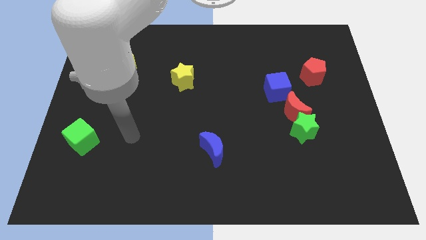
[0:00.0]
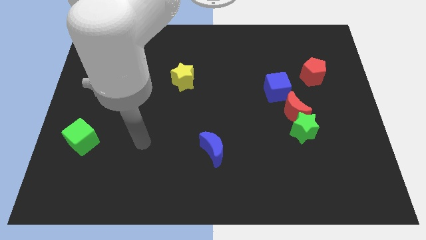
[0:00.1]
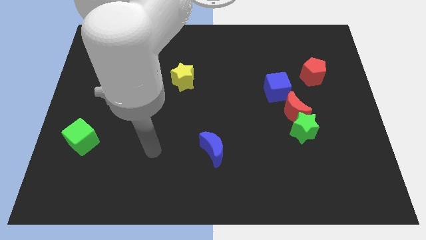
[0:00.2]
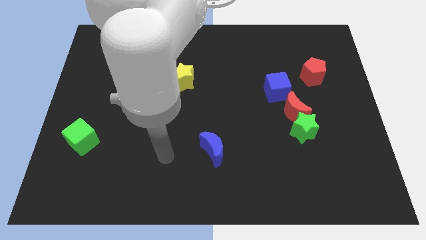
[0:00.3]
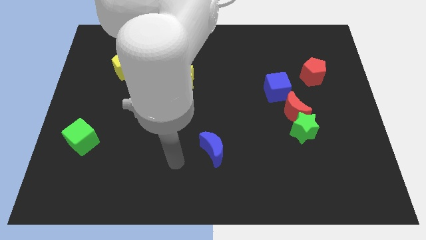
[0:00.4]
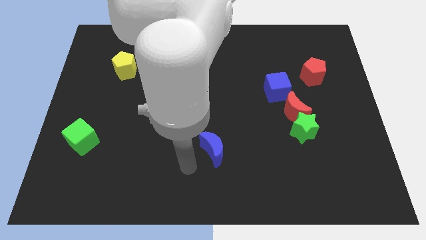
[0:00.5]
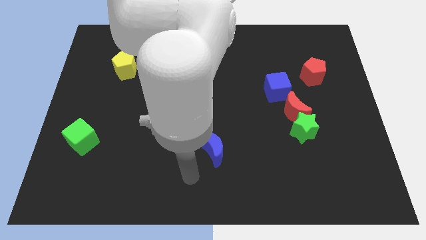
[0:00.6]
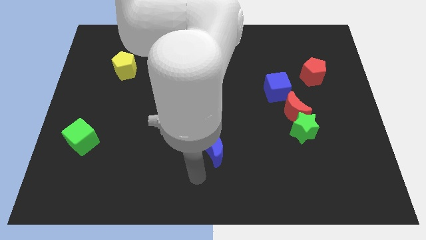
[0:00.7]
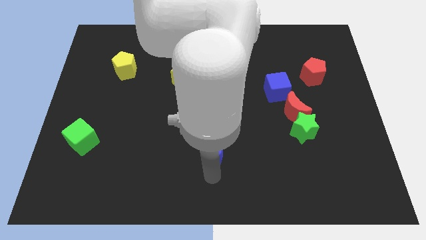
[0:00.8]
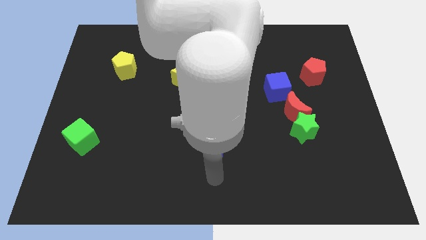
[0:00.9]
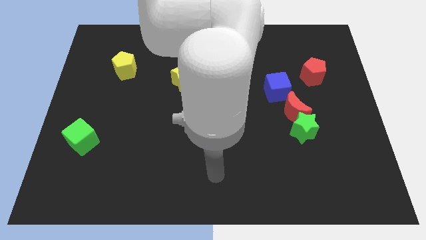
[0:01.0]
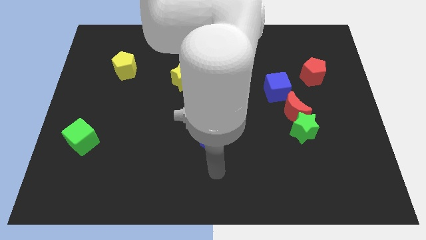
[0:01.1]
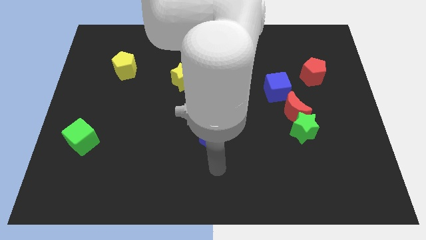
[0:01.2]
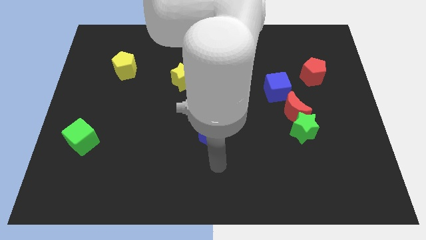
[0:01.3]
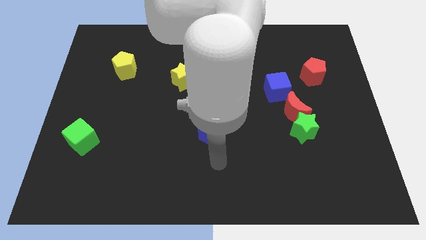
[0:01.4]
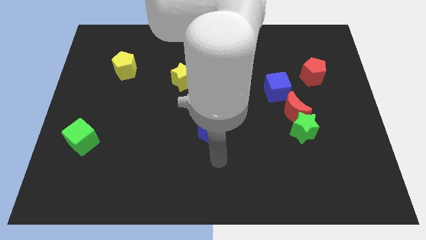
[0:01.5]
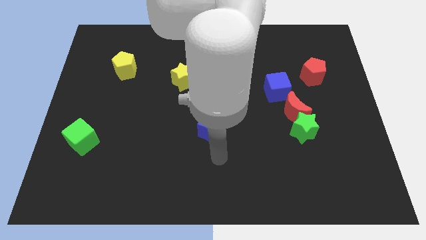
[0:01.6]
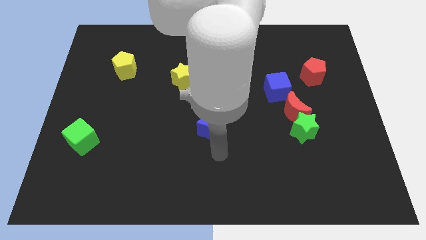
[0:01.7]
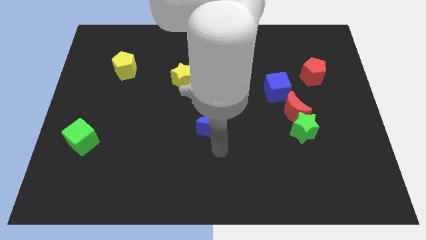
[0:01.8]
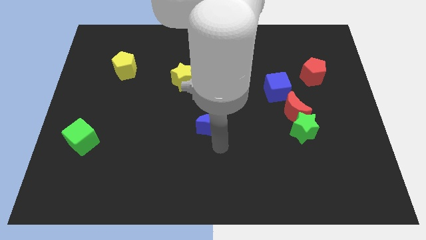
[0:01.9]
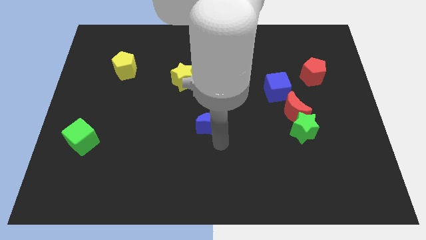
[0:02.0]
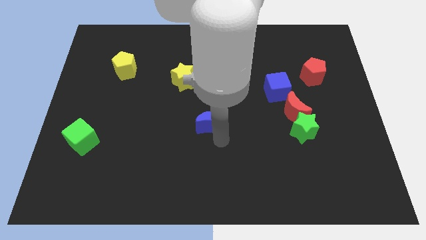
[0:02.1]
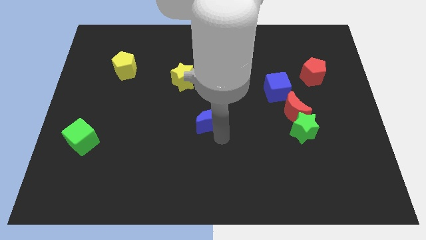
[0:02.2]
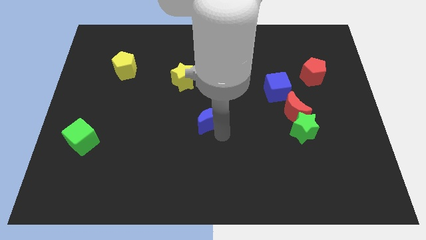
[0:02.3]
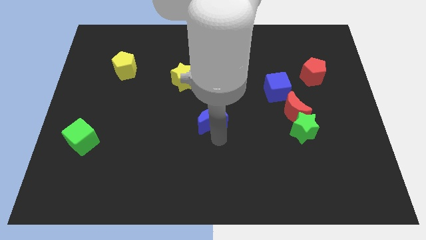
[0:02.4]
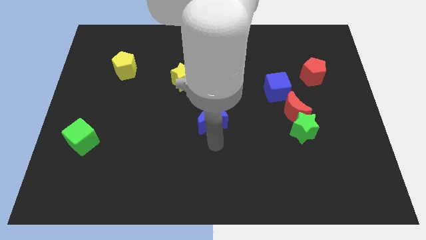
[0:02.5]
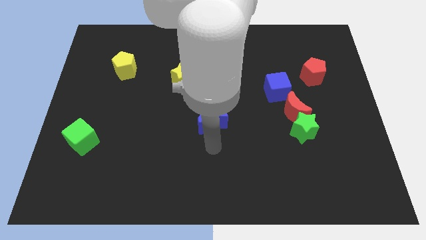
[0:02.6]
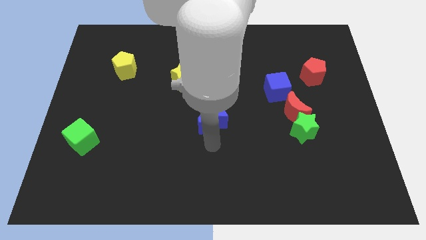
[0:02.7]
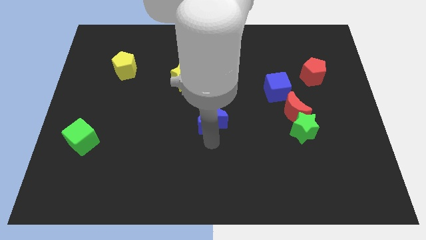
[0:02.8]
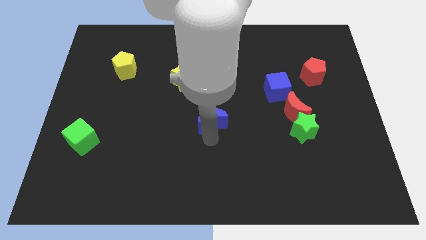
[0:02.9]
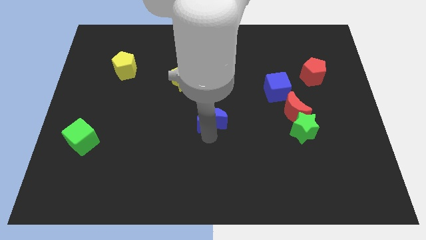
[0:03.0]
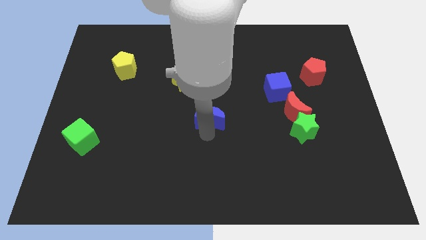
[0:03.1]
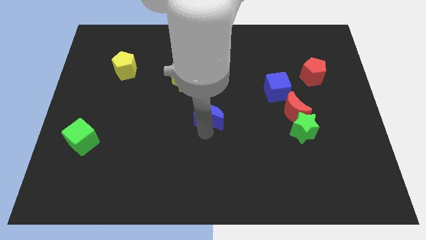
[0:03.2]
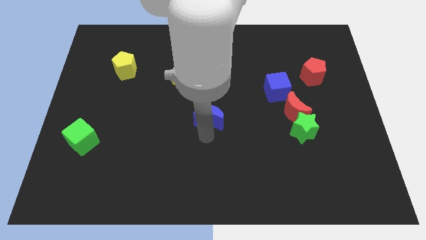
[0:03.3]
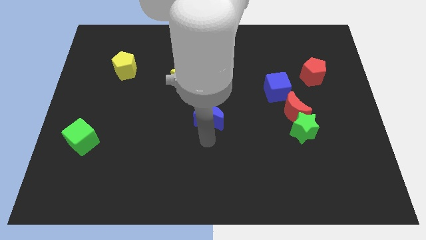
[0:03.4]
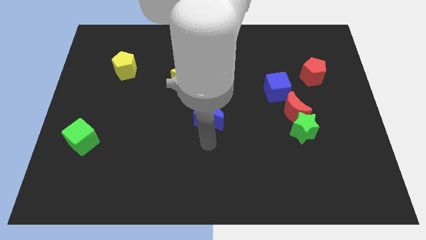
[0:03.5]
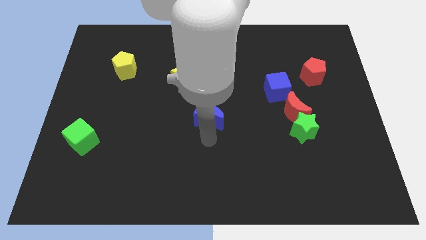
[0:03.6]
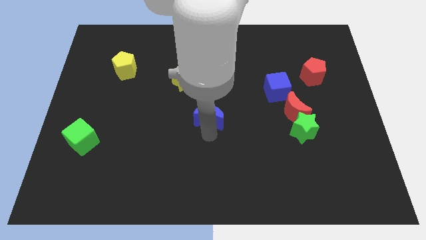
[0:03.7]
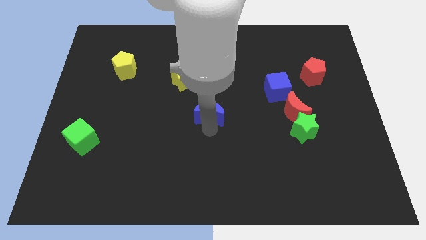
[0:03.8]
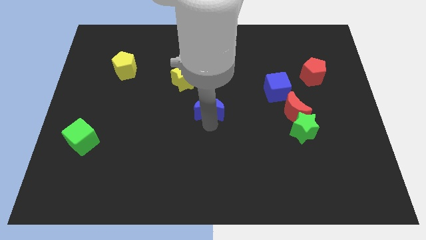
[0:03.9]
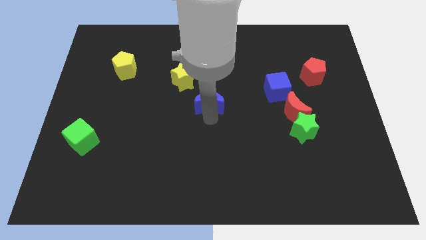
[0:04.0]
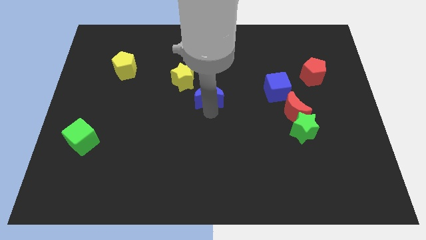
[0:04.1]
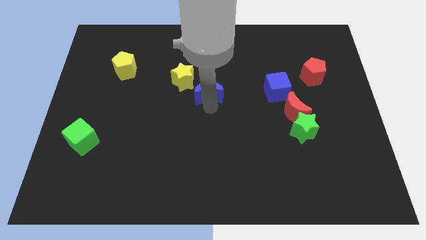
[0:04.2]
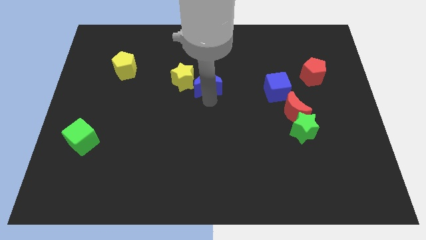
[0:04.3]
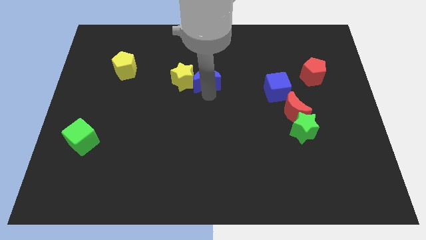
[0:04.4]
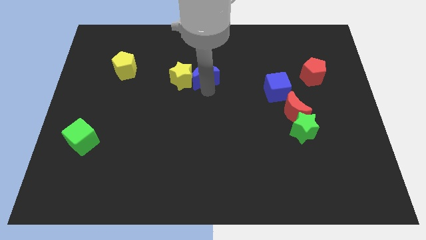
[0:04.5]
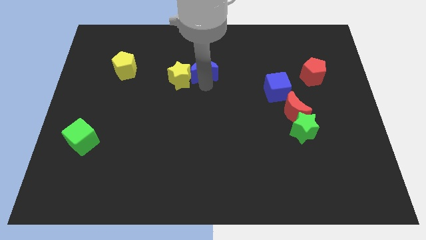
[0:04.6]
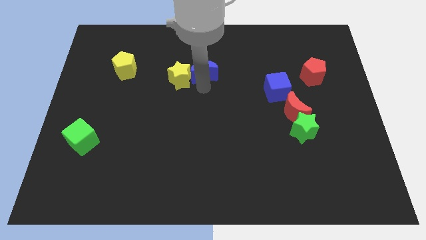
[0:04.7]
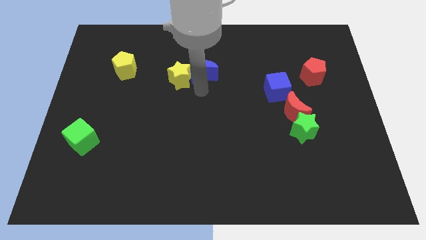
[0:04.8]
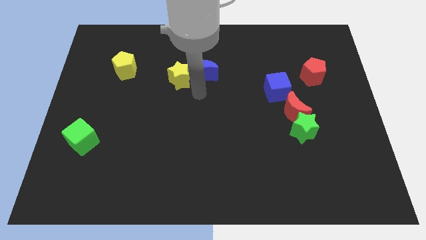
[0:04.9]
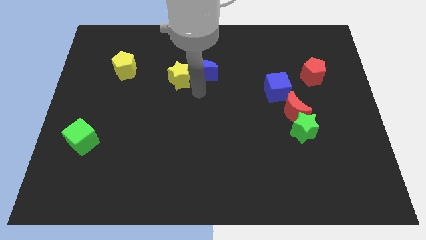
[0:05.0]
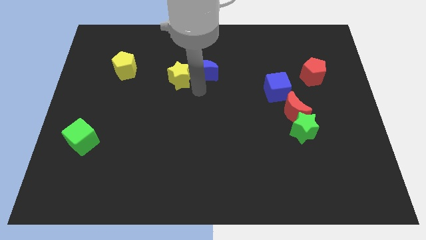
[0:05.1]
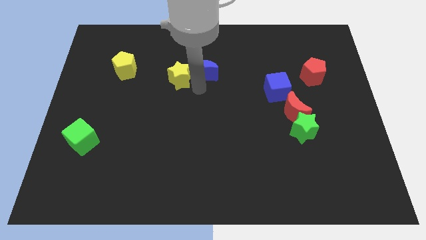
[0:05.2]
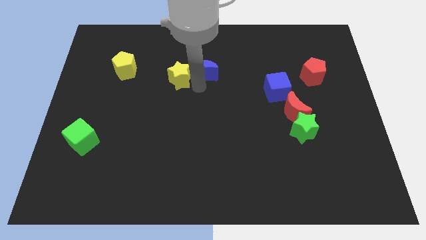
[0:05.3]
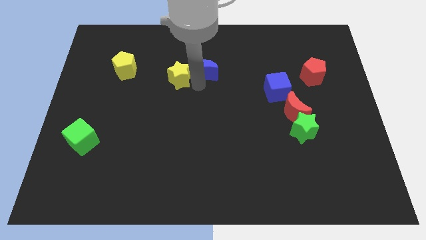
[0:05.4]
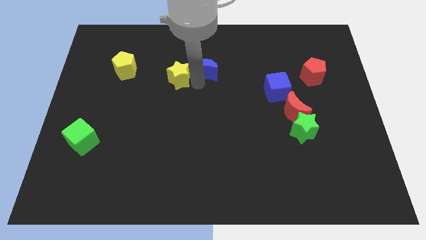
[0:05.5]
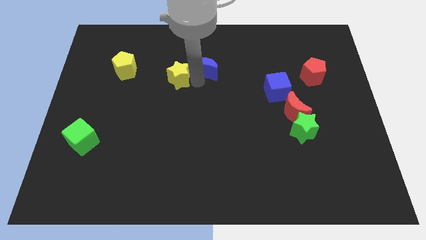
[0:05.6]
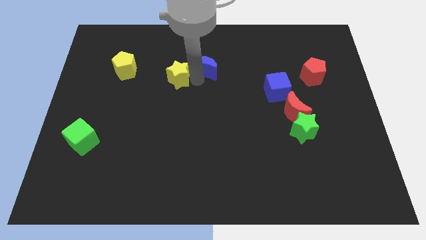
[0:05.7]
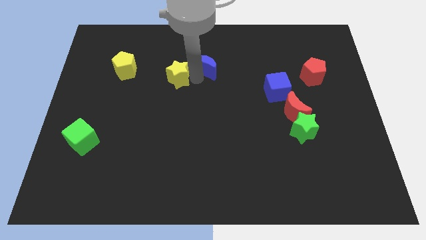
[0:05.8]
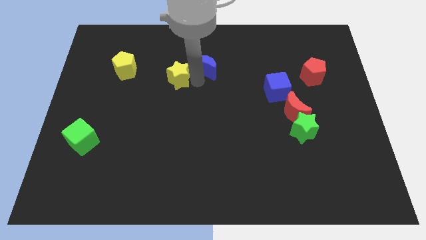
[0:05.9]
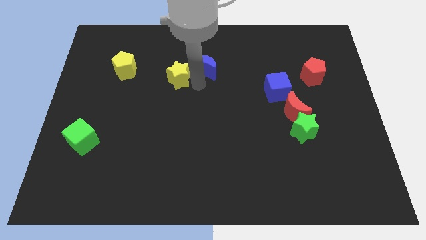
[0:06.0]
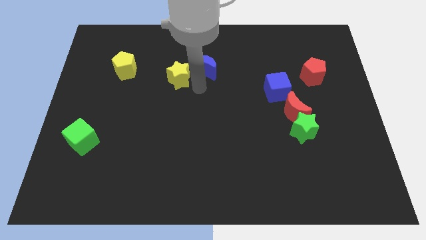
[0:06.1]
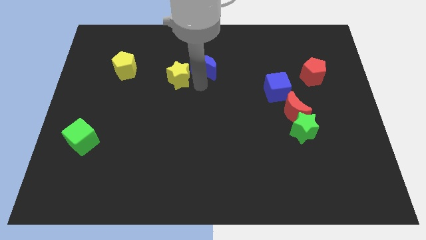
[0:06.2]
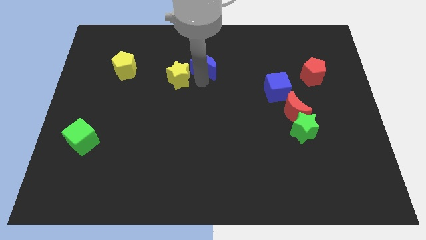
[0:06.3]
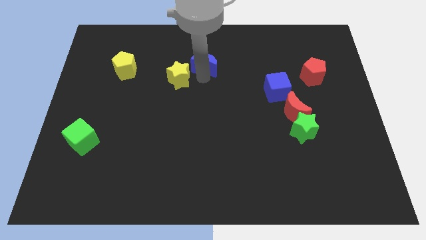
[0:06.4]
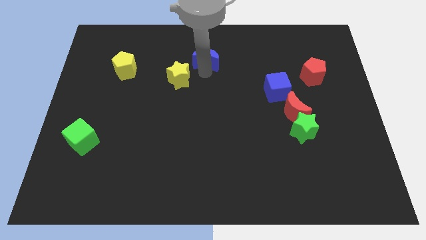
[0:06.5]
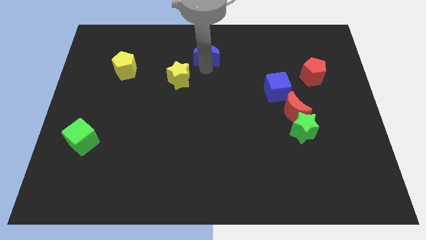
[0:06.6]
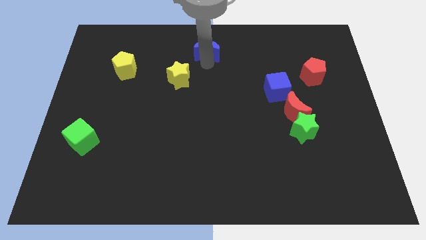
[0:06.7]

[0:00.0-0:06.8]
move the blue moon to the towards your base

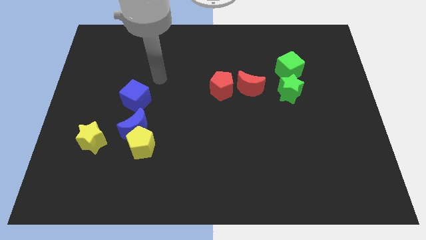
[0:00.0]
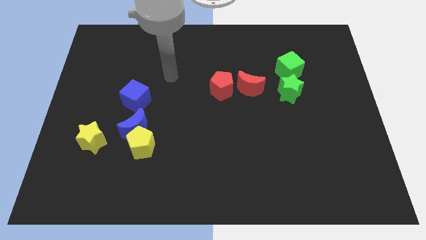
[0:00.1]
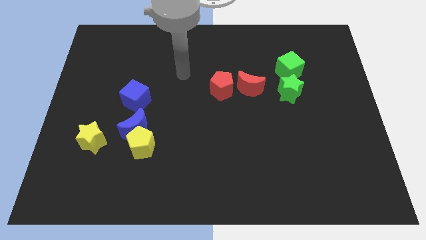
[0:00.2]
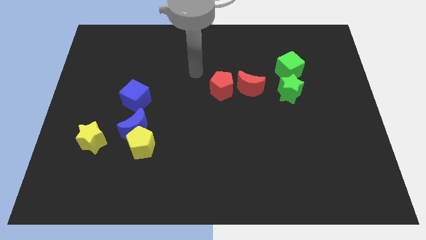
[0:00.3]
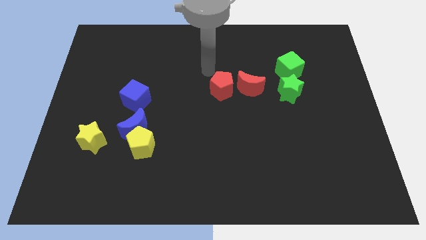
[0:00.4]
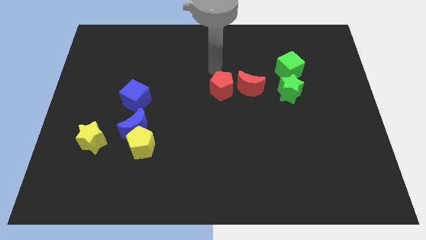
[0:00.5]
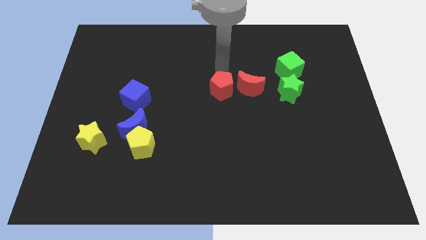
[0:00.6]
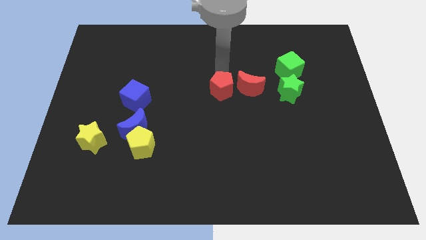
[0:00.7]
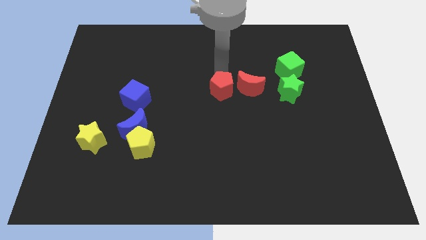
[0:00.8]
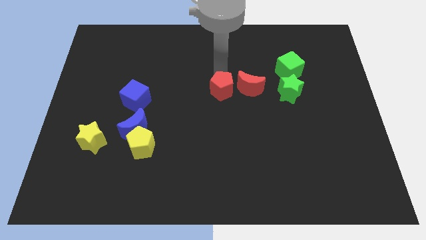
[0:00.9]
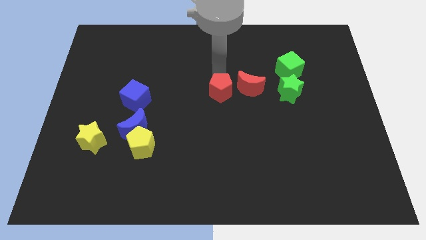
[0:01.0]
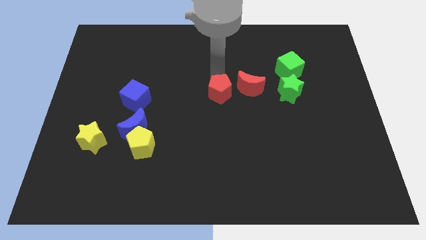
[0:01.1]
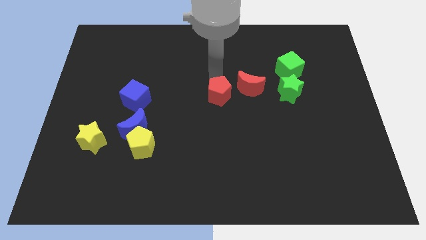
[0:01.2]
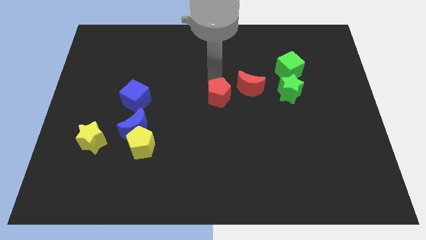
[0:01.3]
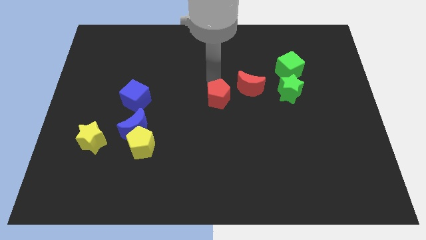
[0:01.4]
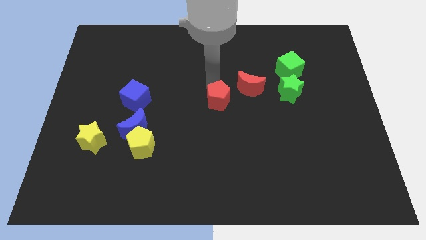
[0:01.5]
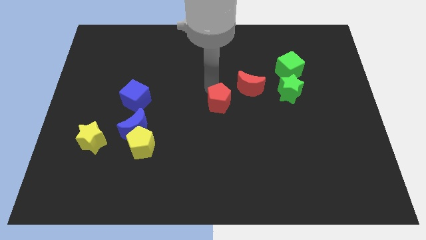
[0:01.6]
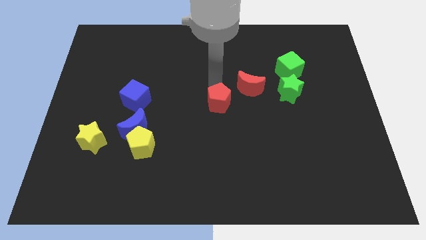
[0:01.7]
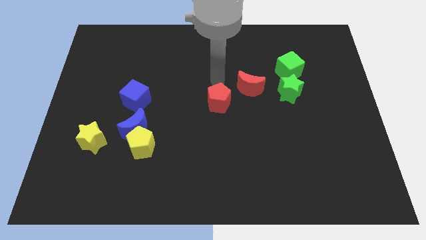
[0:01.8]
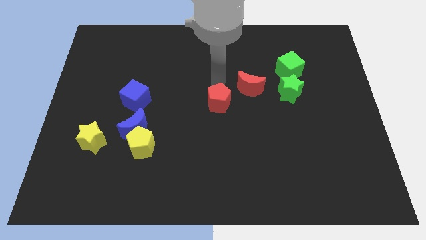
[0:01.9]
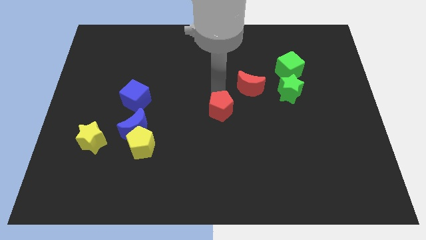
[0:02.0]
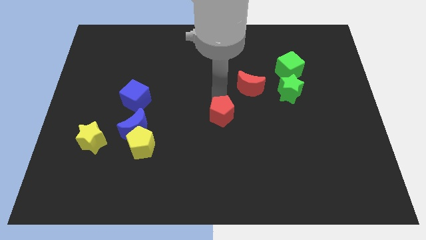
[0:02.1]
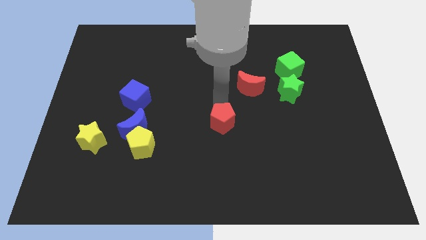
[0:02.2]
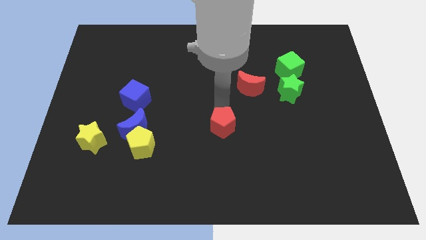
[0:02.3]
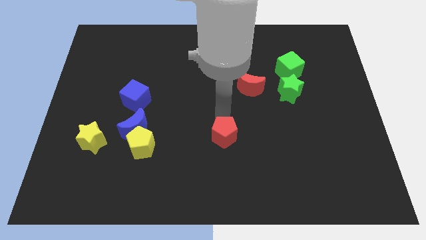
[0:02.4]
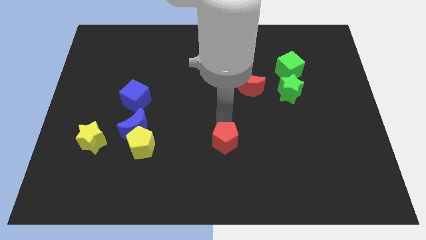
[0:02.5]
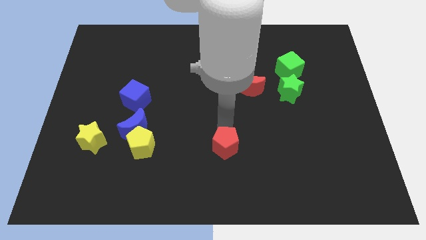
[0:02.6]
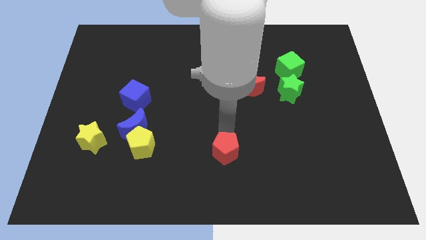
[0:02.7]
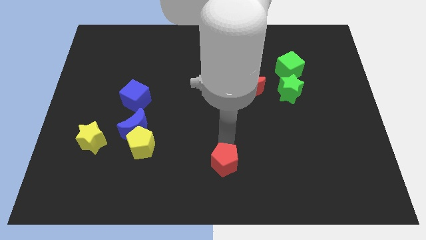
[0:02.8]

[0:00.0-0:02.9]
push the red pentagon to the bottom
